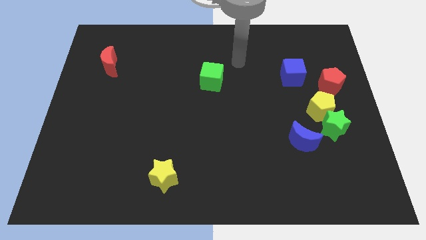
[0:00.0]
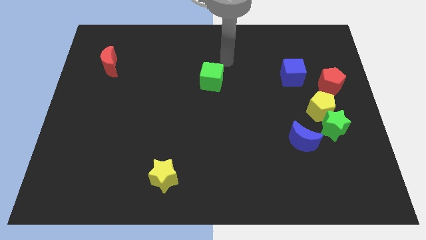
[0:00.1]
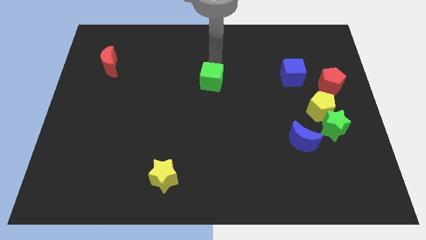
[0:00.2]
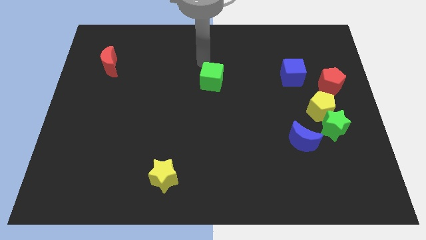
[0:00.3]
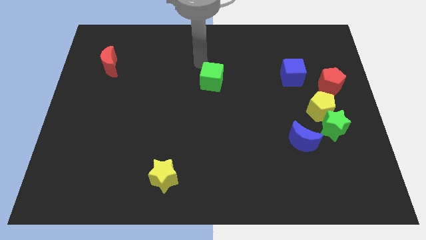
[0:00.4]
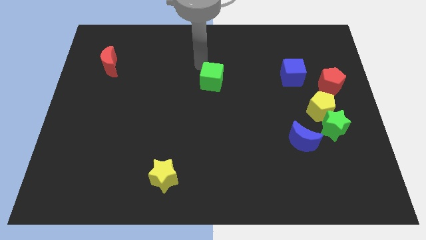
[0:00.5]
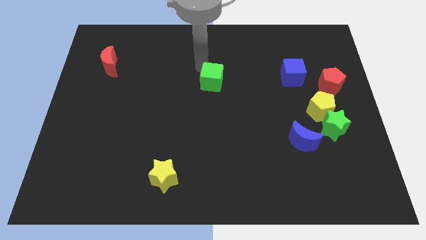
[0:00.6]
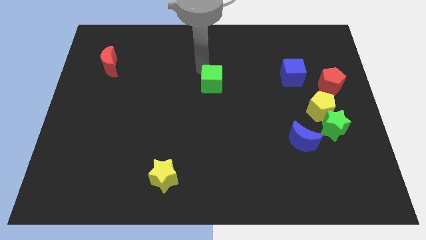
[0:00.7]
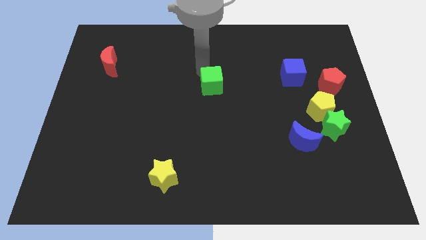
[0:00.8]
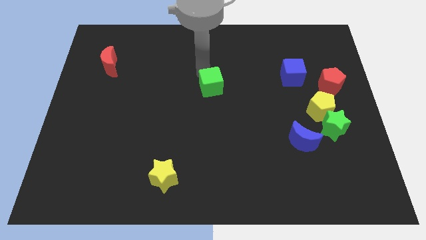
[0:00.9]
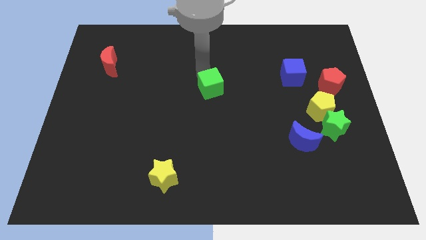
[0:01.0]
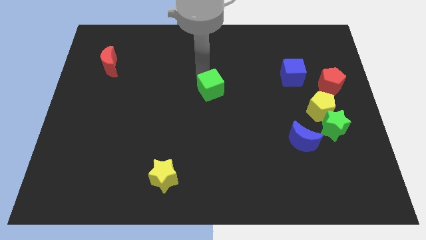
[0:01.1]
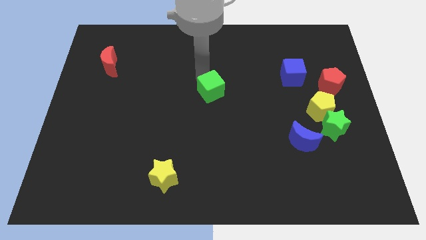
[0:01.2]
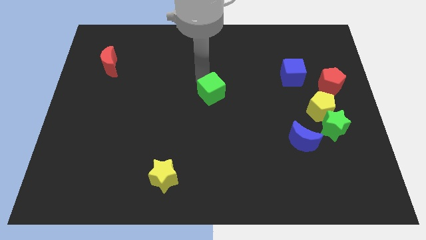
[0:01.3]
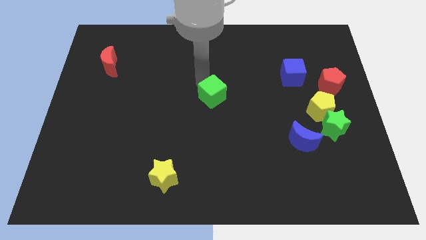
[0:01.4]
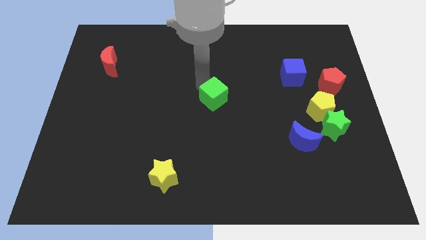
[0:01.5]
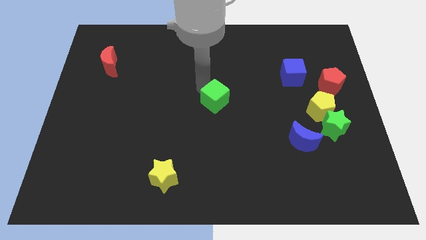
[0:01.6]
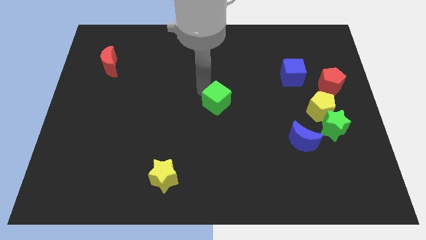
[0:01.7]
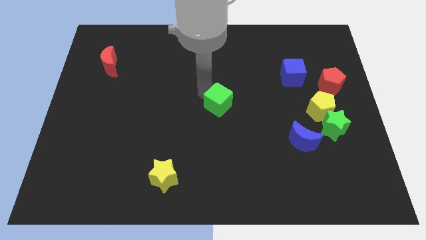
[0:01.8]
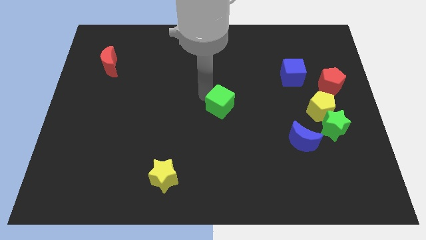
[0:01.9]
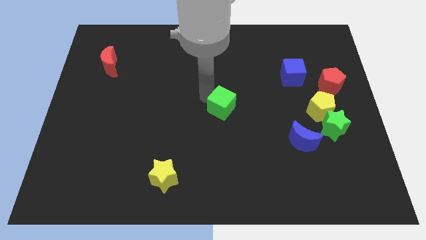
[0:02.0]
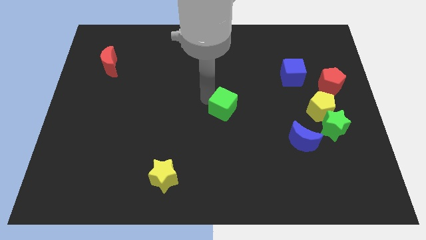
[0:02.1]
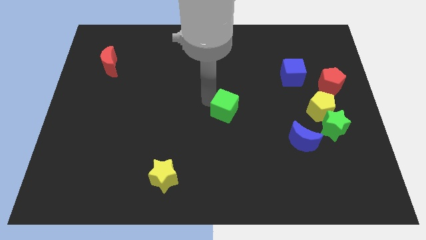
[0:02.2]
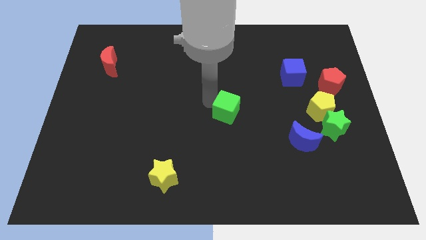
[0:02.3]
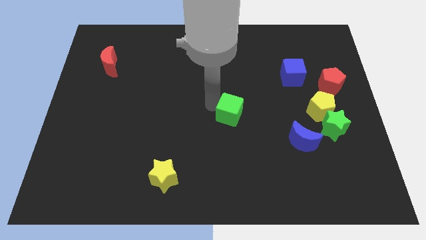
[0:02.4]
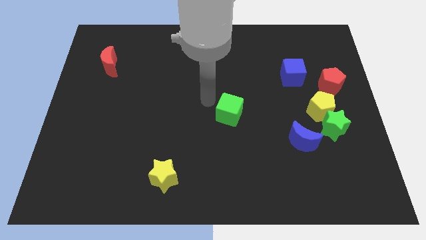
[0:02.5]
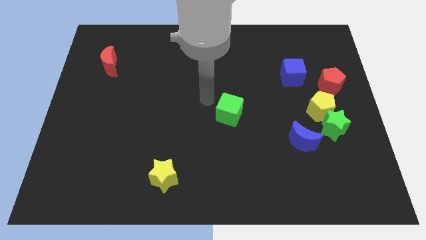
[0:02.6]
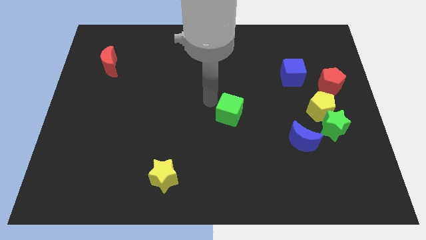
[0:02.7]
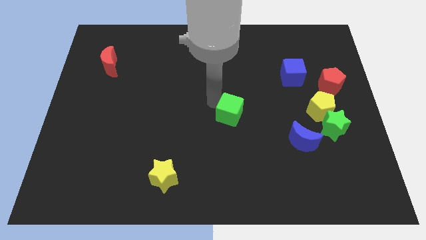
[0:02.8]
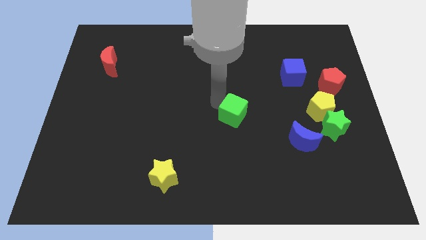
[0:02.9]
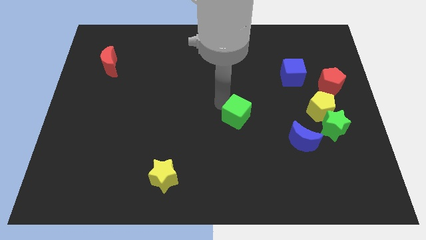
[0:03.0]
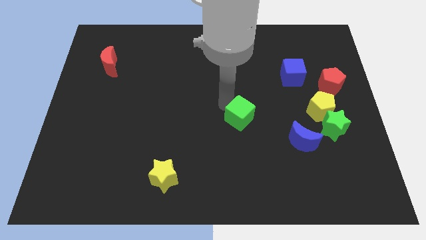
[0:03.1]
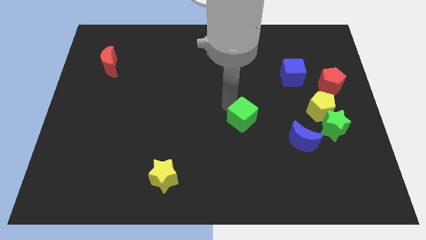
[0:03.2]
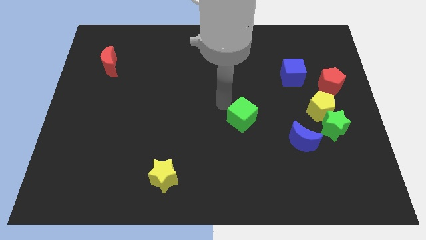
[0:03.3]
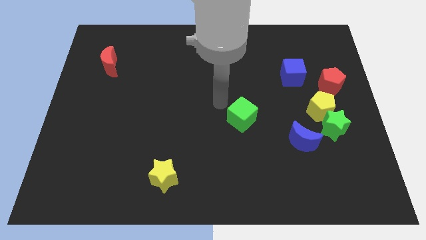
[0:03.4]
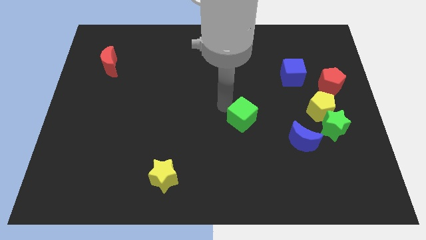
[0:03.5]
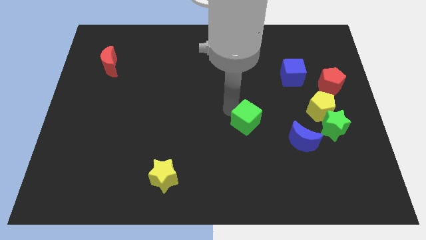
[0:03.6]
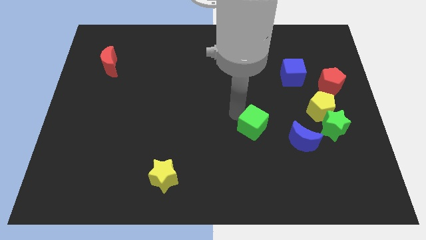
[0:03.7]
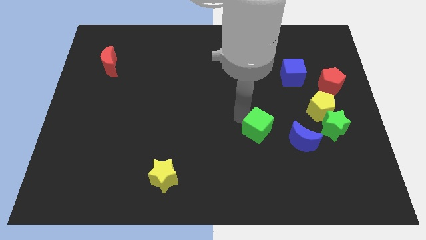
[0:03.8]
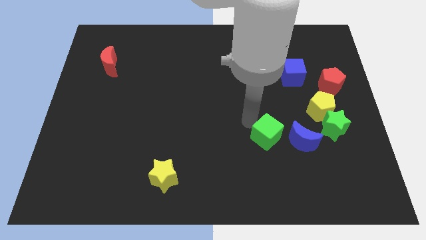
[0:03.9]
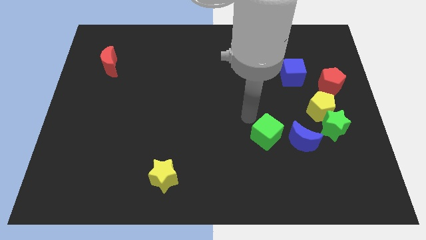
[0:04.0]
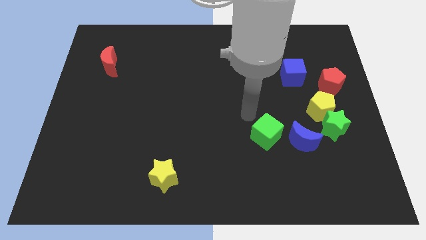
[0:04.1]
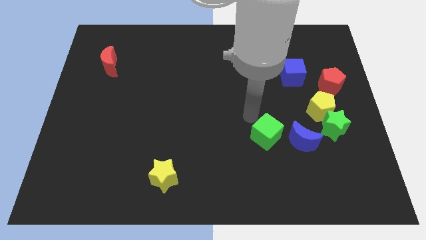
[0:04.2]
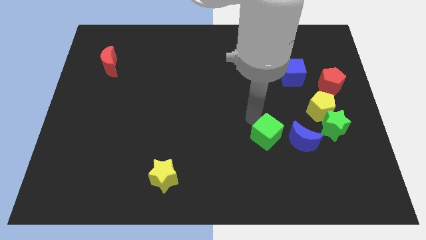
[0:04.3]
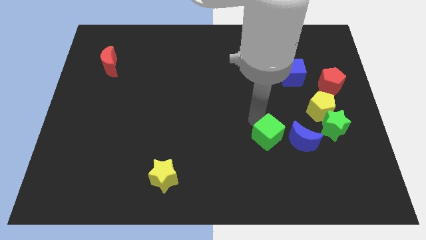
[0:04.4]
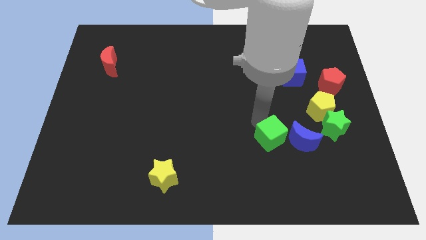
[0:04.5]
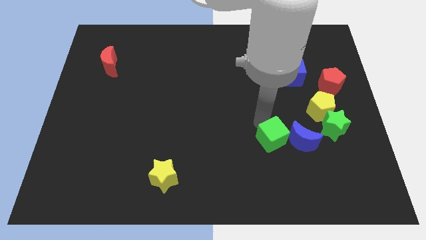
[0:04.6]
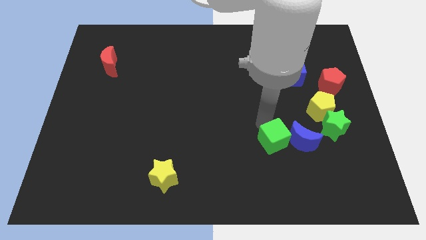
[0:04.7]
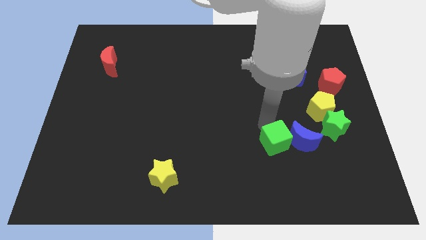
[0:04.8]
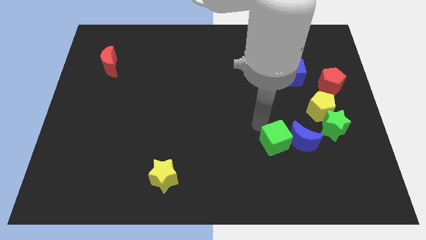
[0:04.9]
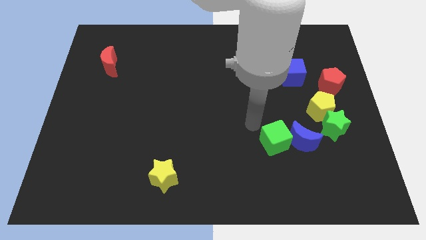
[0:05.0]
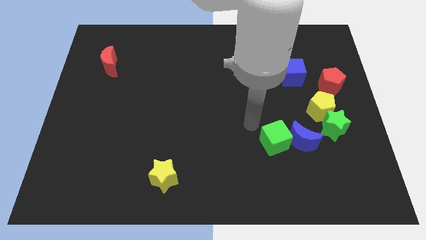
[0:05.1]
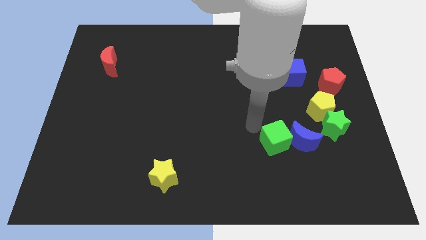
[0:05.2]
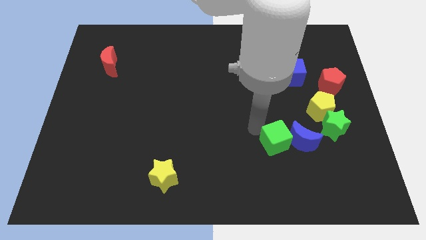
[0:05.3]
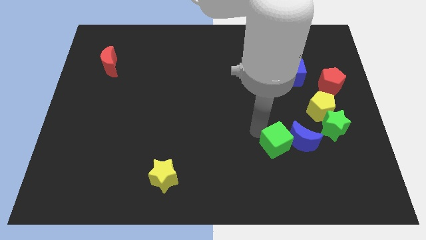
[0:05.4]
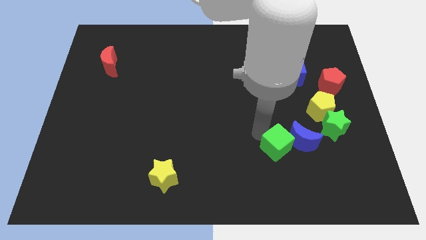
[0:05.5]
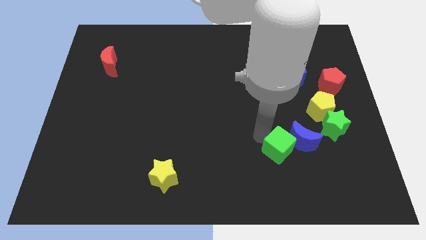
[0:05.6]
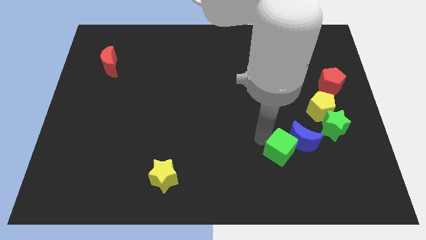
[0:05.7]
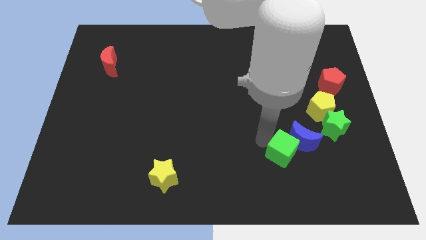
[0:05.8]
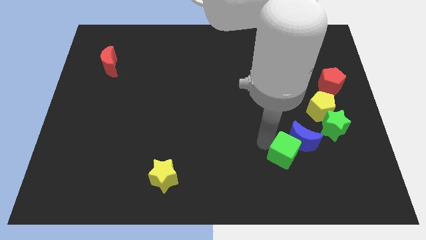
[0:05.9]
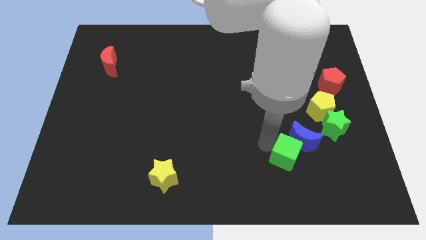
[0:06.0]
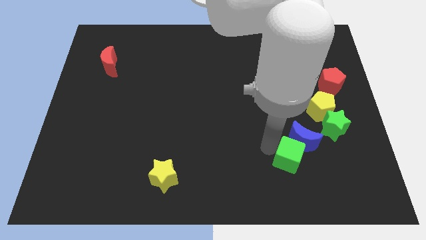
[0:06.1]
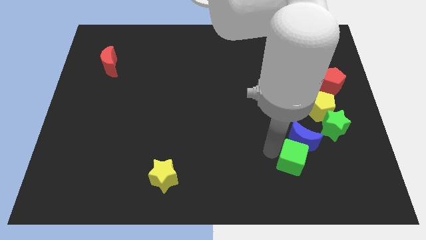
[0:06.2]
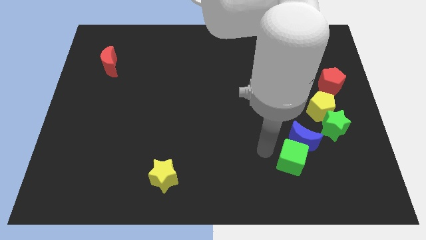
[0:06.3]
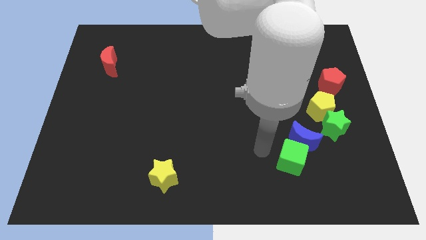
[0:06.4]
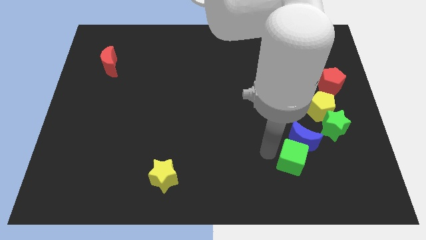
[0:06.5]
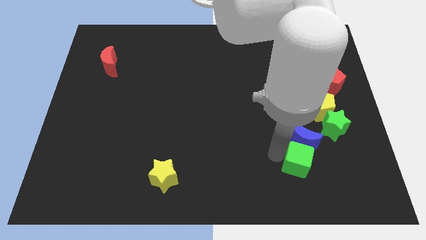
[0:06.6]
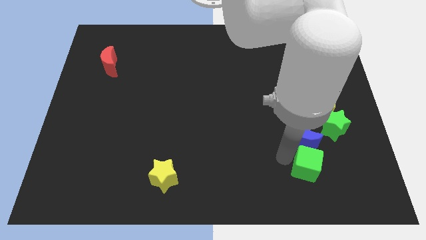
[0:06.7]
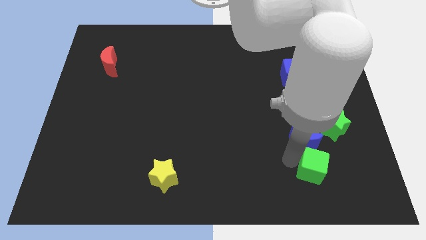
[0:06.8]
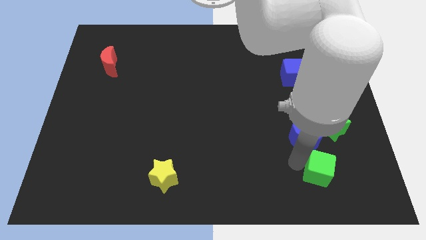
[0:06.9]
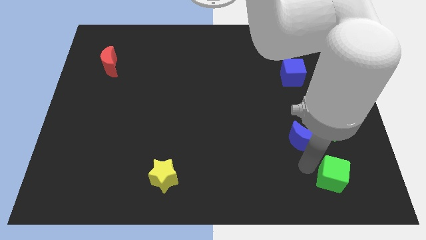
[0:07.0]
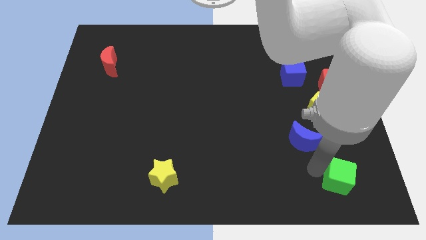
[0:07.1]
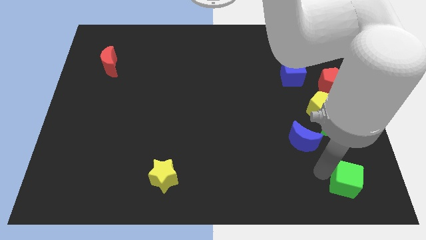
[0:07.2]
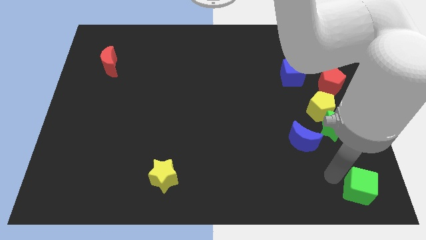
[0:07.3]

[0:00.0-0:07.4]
slide the green cube to the lower right corner
